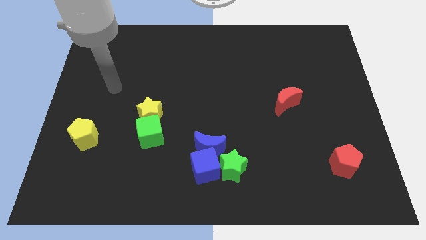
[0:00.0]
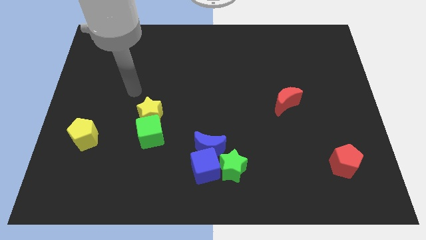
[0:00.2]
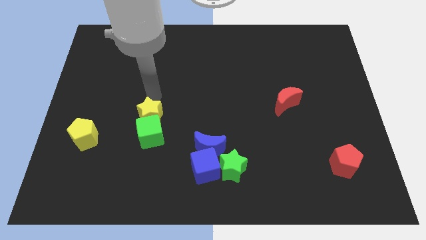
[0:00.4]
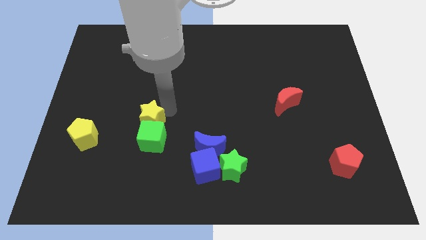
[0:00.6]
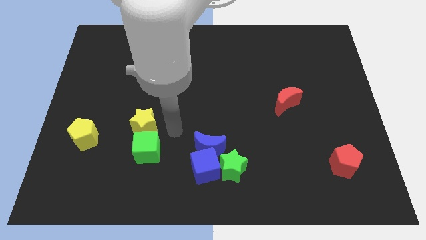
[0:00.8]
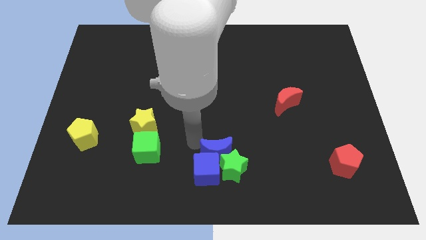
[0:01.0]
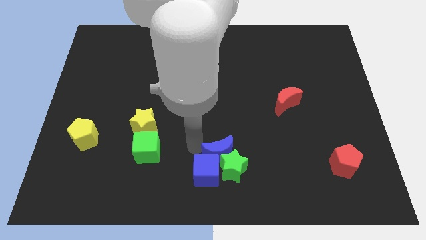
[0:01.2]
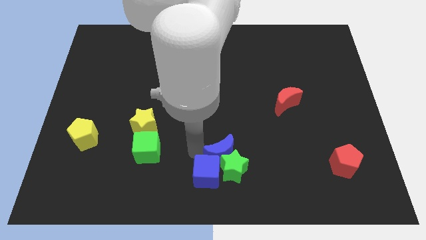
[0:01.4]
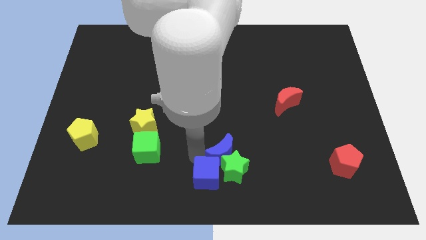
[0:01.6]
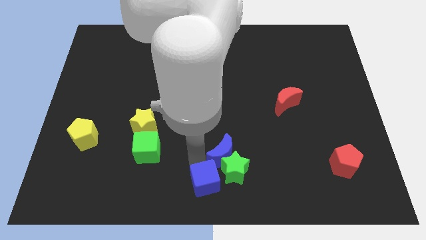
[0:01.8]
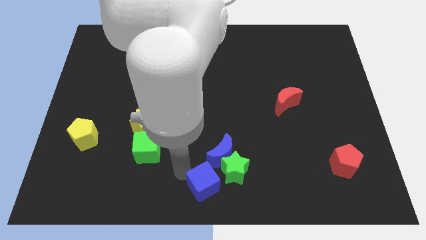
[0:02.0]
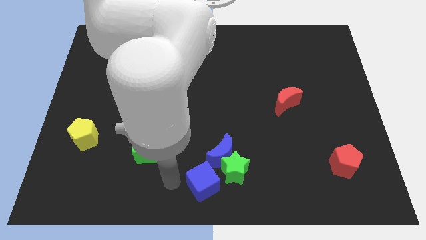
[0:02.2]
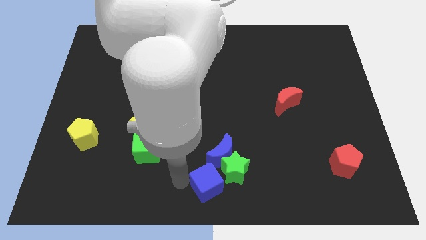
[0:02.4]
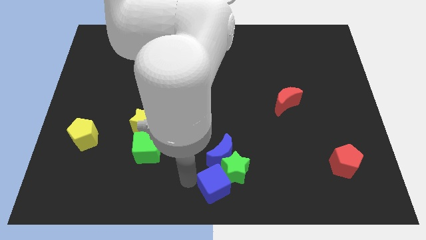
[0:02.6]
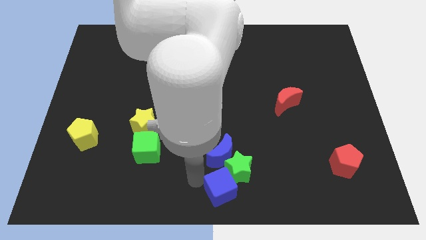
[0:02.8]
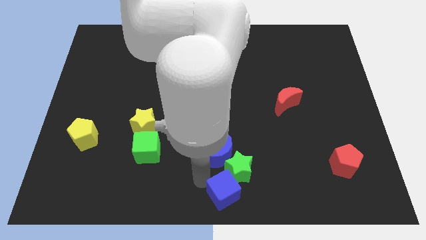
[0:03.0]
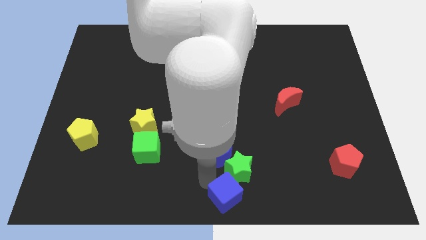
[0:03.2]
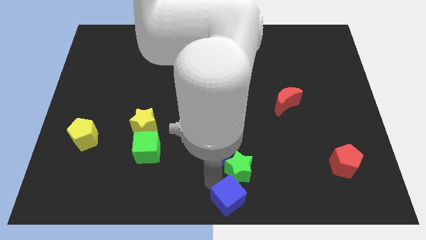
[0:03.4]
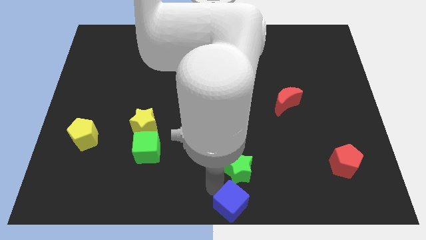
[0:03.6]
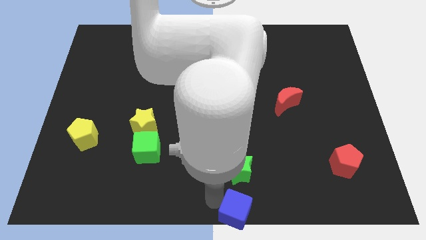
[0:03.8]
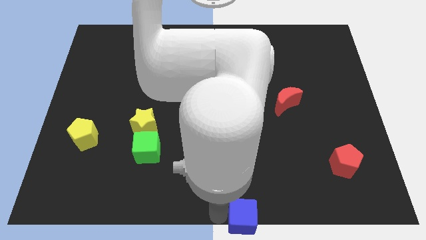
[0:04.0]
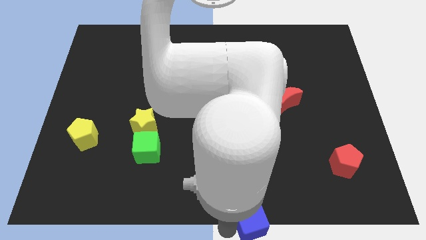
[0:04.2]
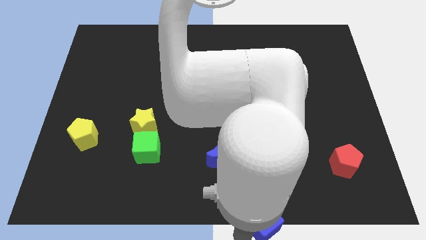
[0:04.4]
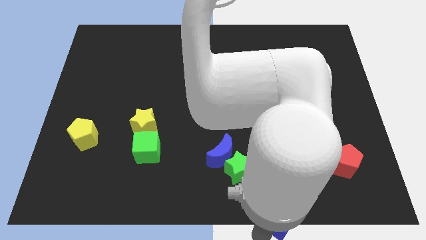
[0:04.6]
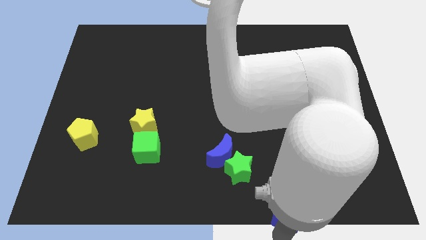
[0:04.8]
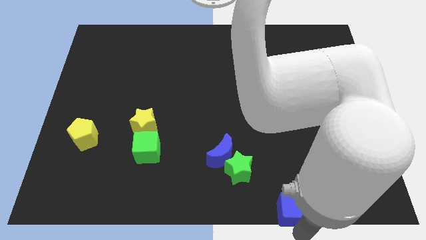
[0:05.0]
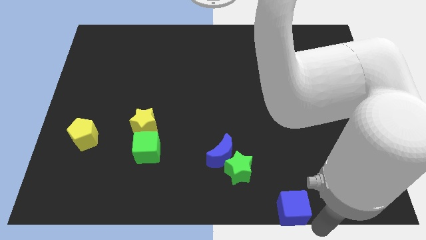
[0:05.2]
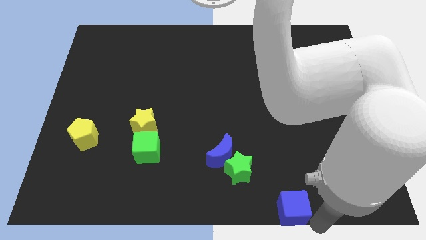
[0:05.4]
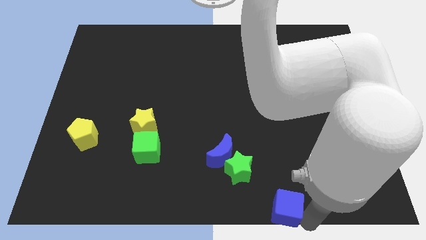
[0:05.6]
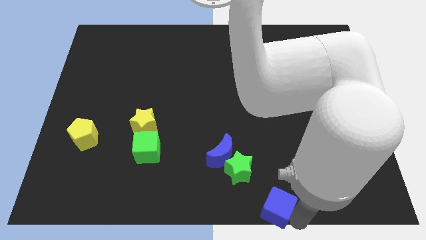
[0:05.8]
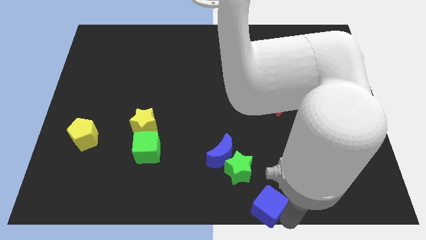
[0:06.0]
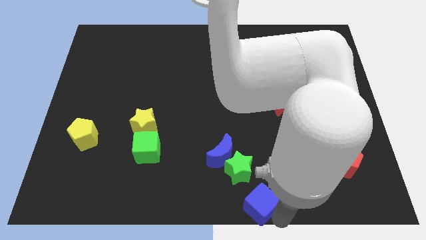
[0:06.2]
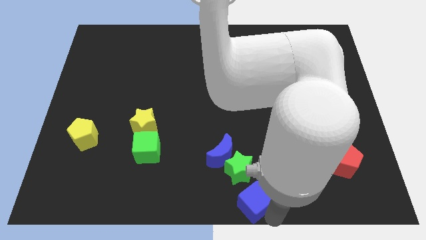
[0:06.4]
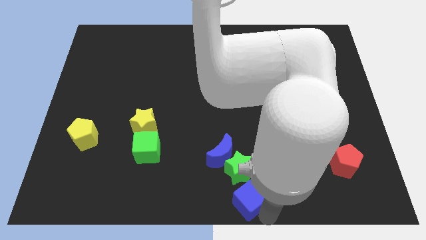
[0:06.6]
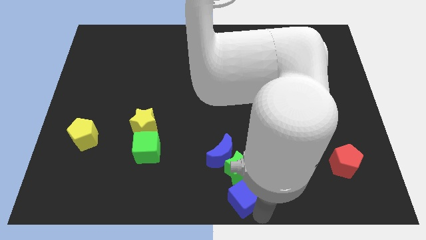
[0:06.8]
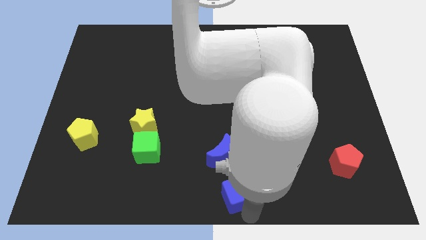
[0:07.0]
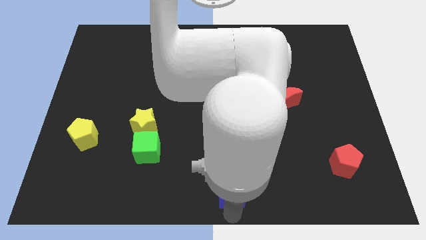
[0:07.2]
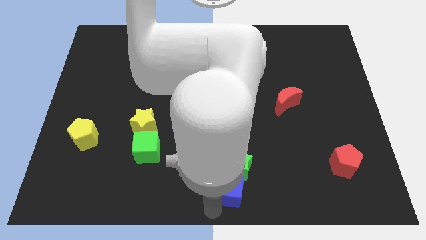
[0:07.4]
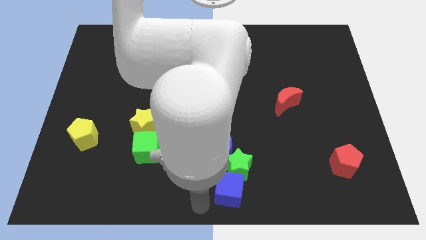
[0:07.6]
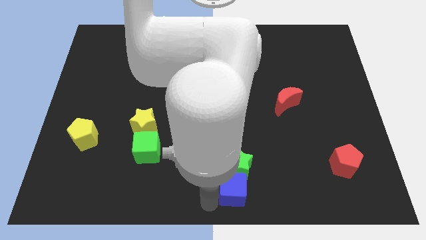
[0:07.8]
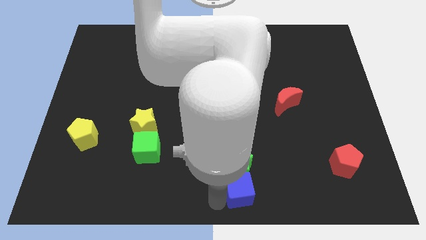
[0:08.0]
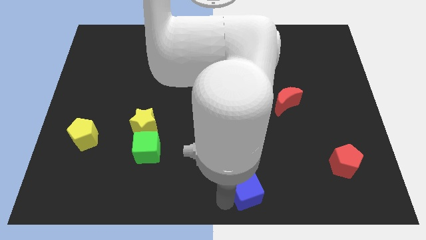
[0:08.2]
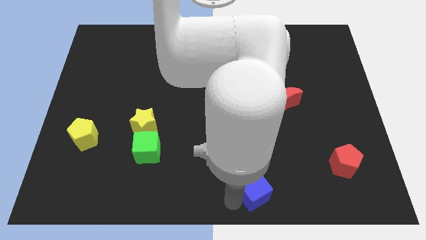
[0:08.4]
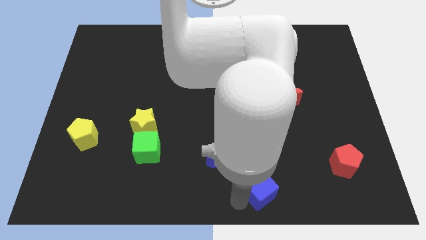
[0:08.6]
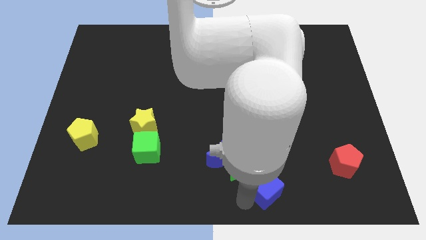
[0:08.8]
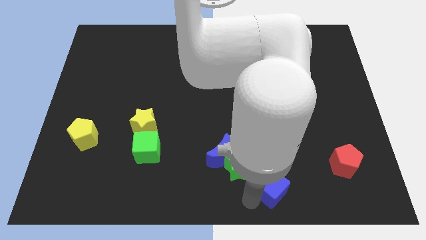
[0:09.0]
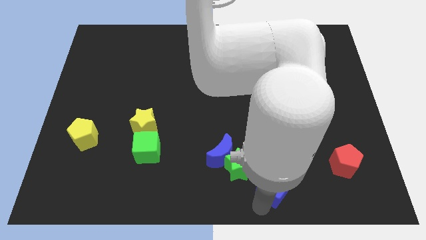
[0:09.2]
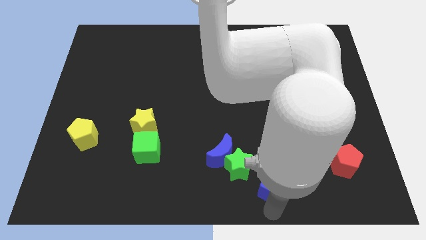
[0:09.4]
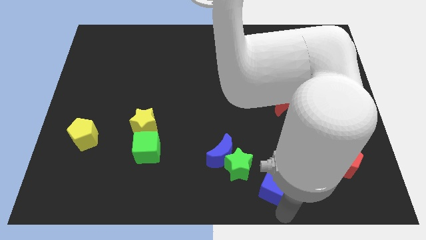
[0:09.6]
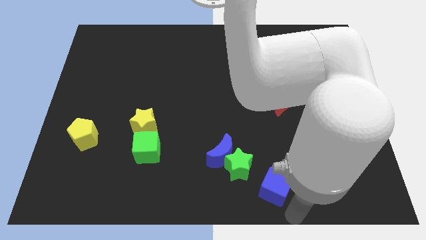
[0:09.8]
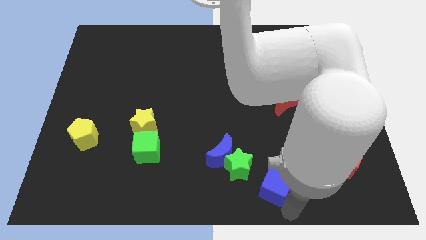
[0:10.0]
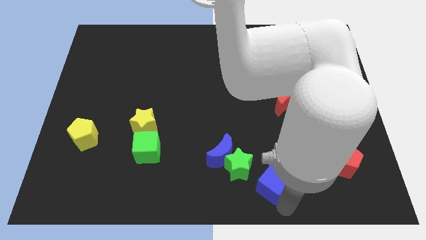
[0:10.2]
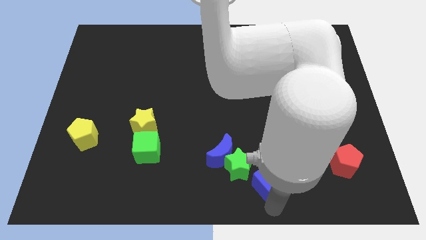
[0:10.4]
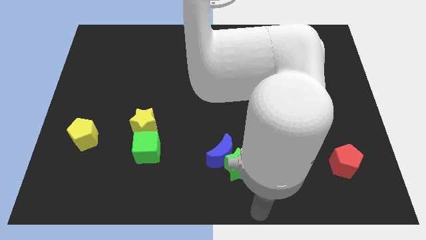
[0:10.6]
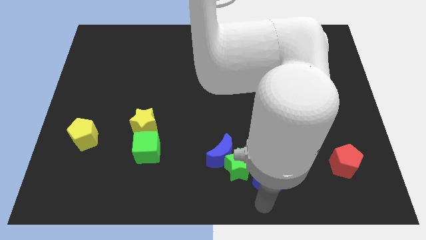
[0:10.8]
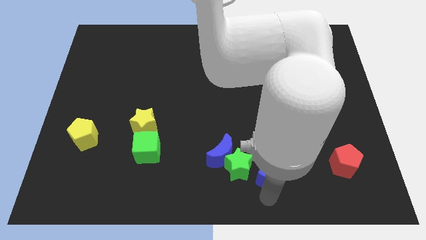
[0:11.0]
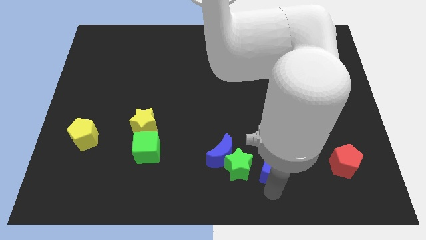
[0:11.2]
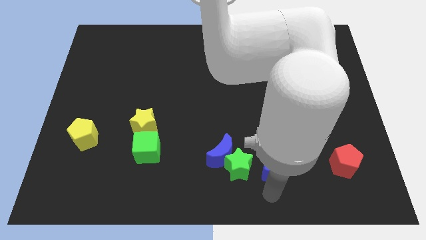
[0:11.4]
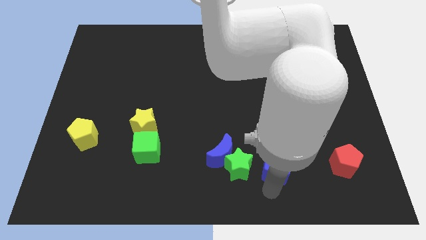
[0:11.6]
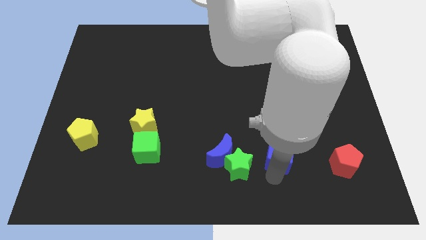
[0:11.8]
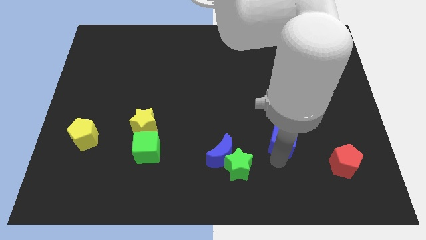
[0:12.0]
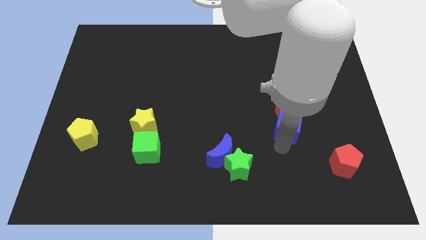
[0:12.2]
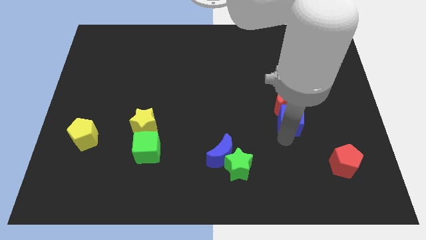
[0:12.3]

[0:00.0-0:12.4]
move the blue cube to the red moon
